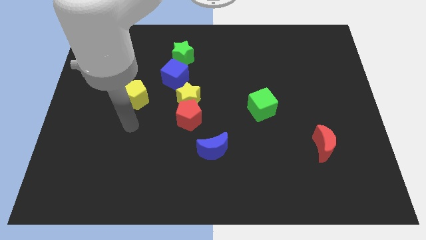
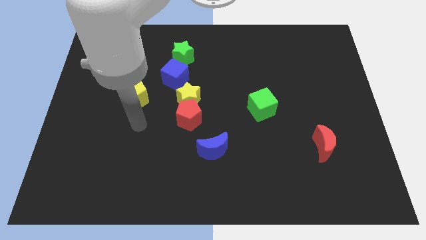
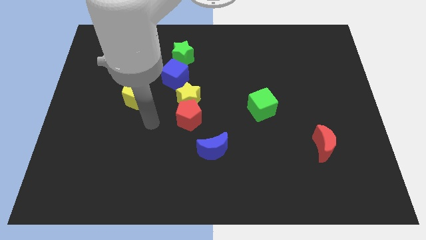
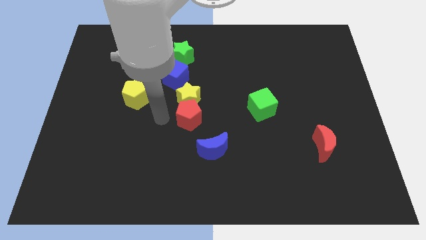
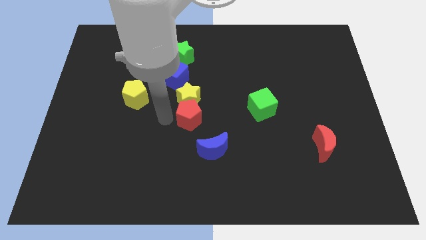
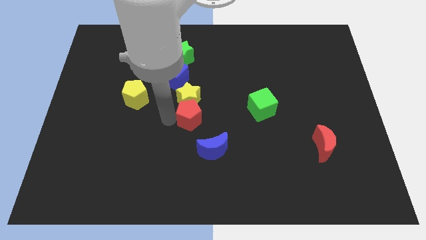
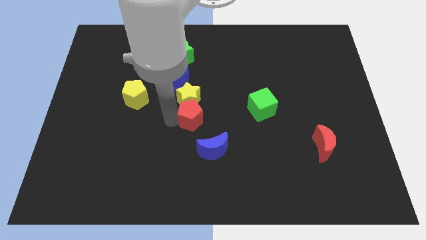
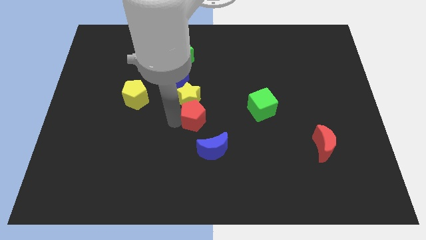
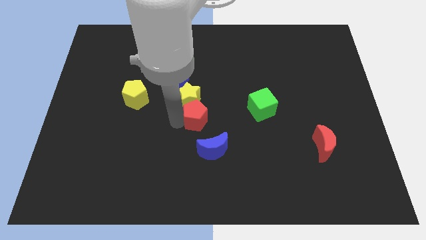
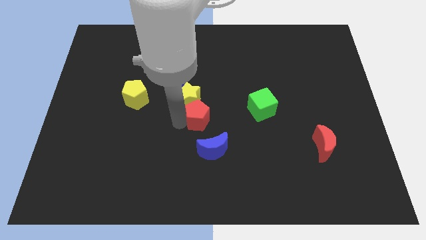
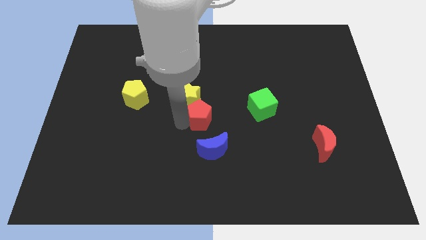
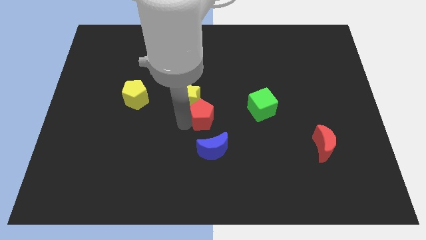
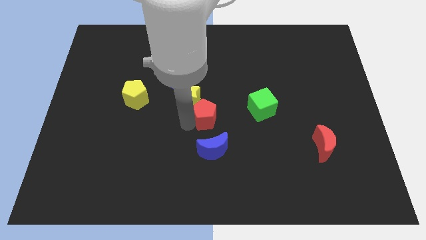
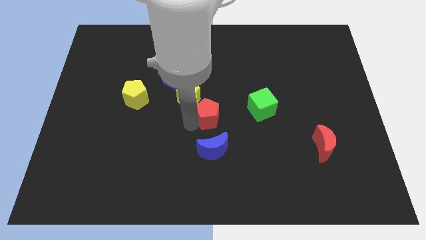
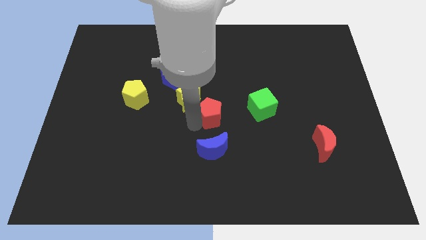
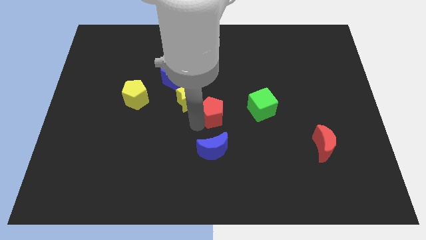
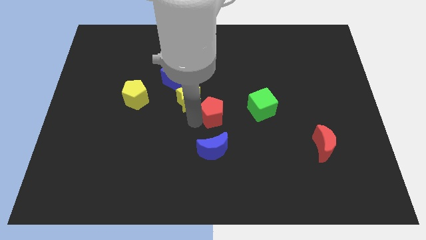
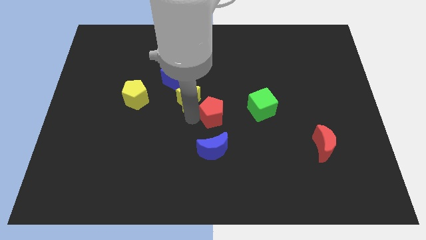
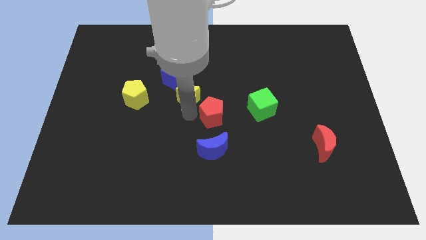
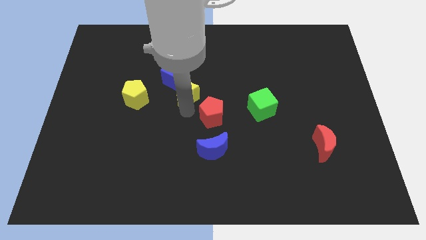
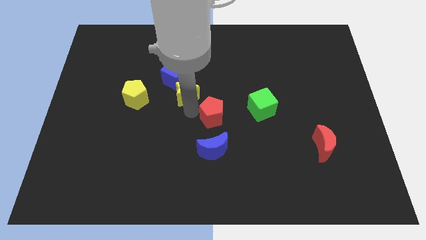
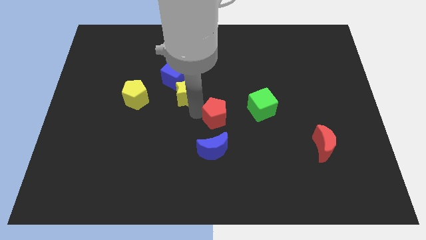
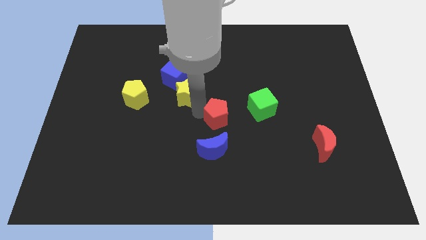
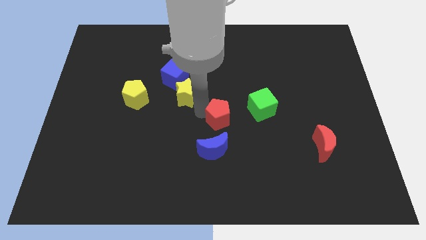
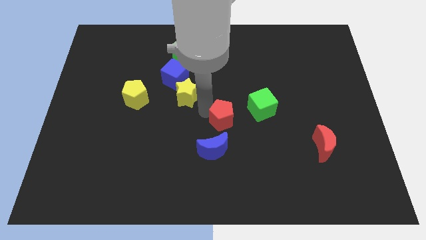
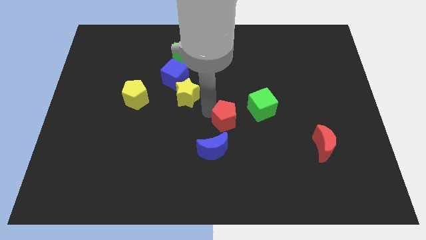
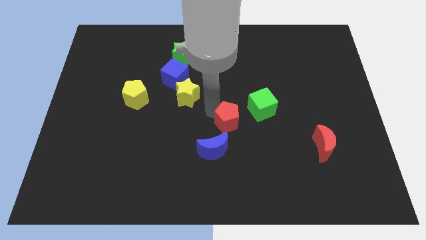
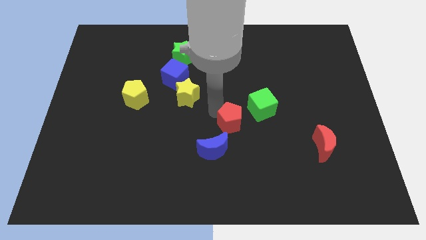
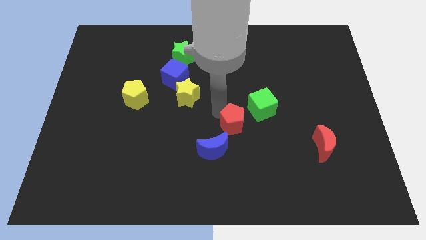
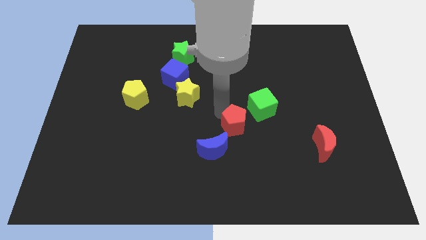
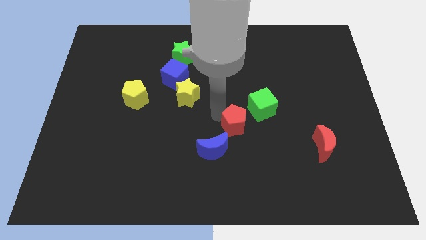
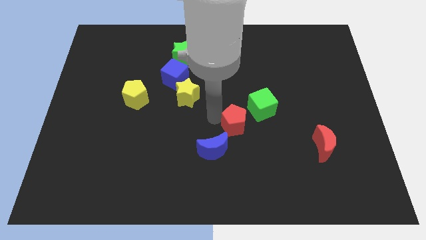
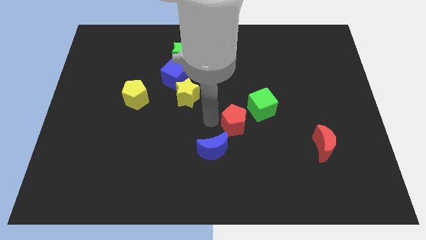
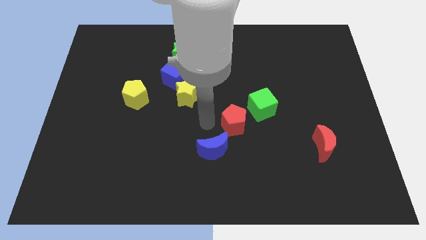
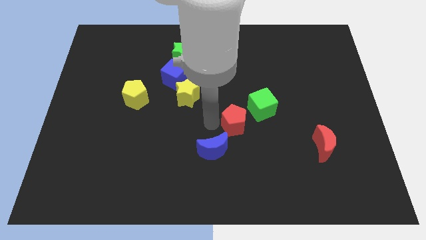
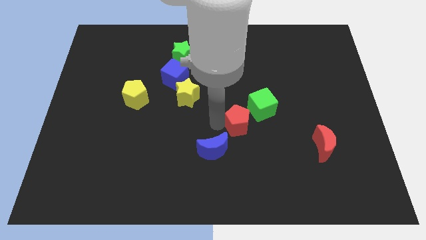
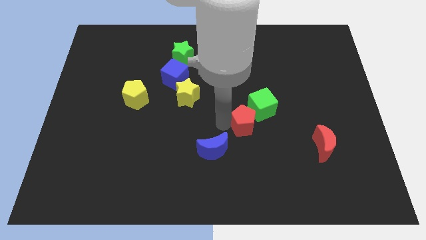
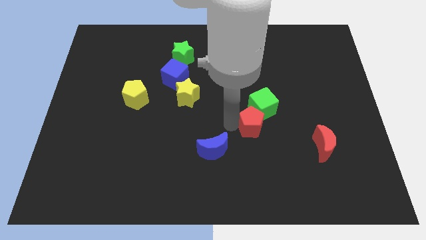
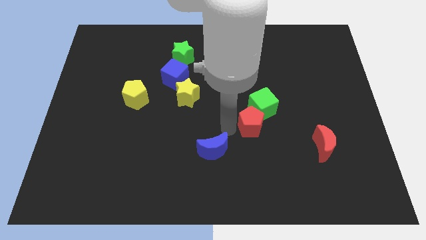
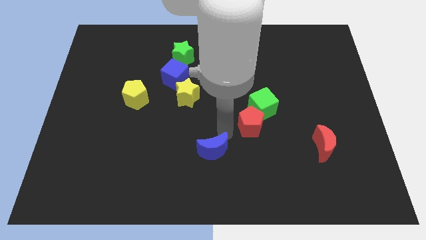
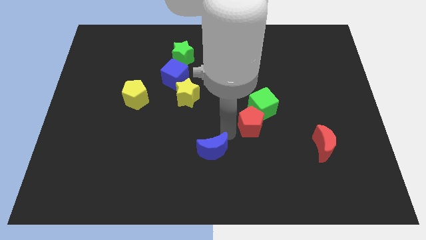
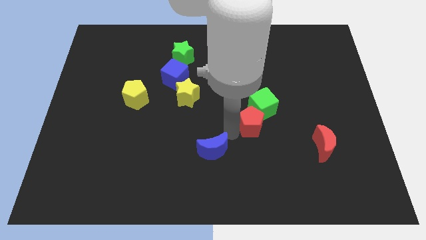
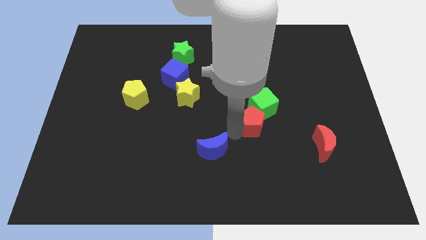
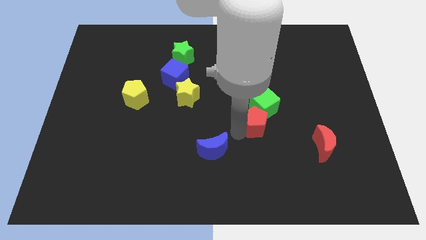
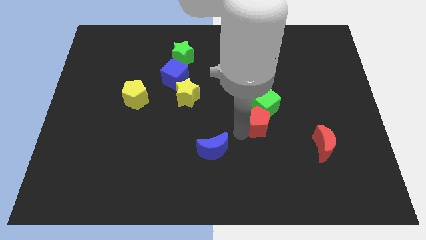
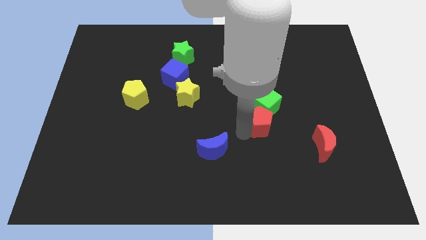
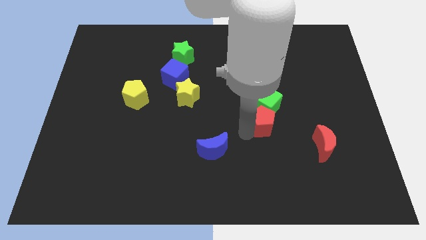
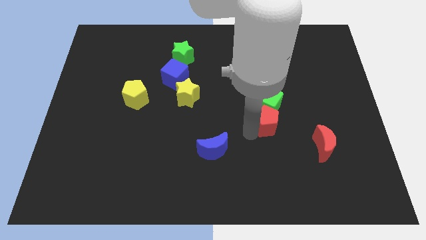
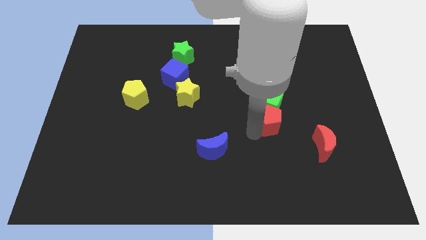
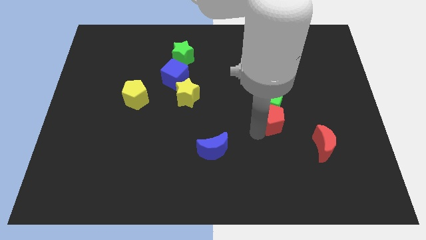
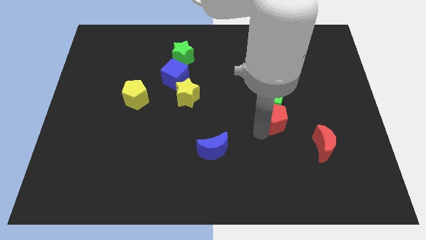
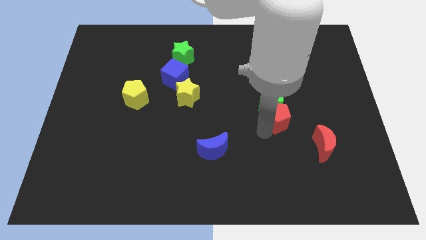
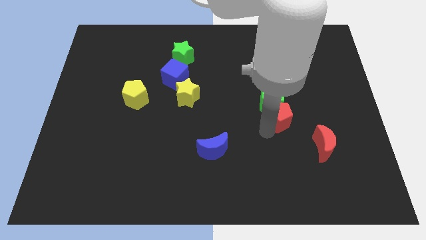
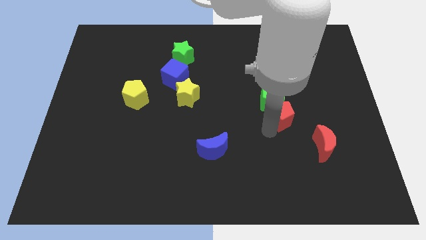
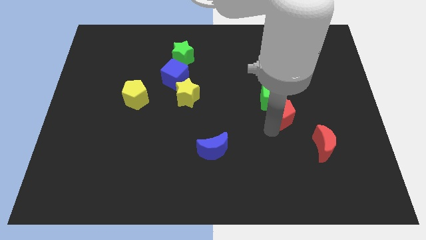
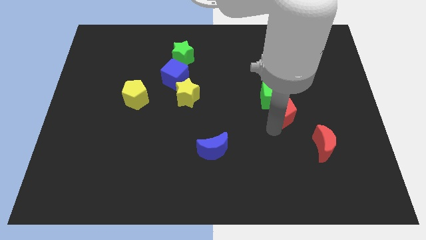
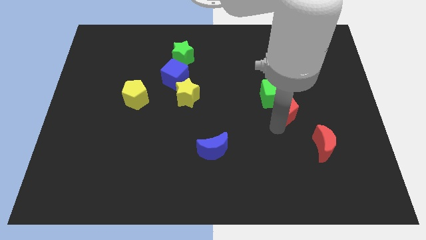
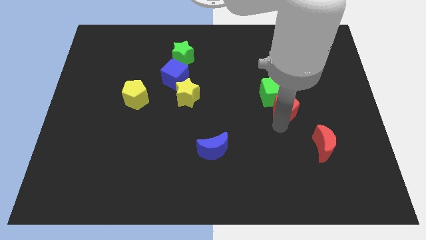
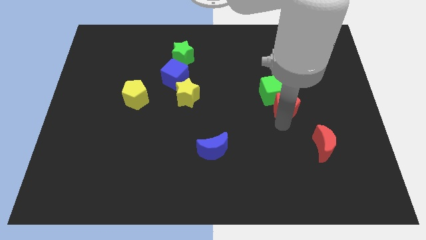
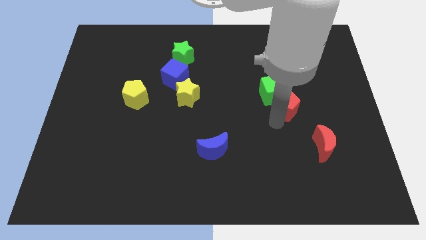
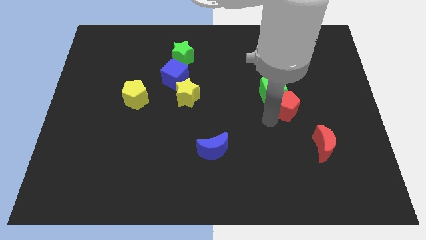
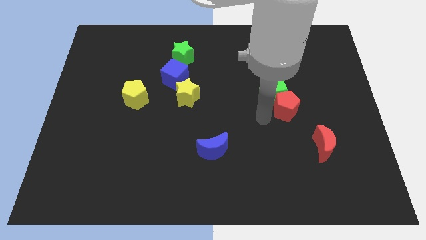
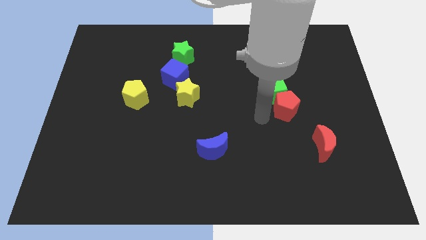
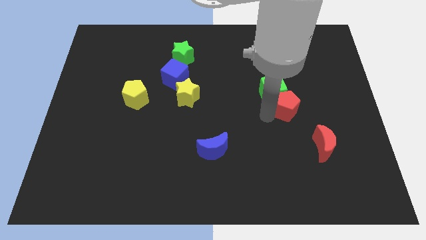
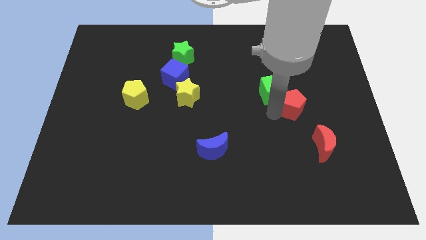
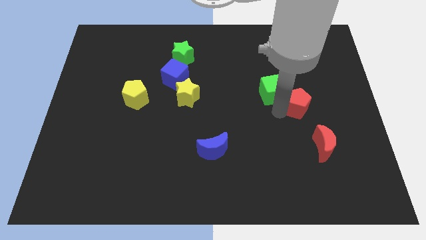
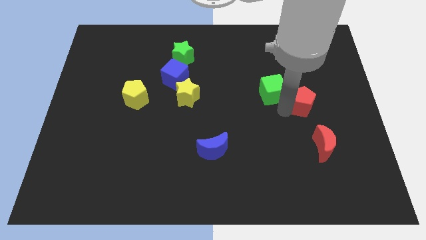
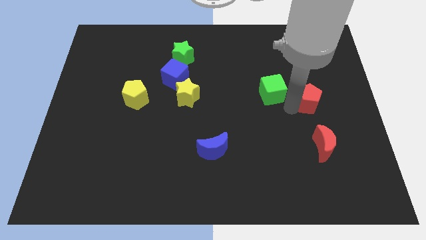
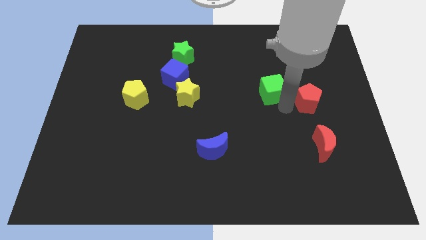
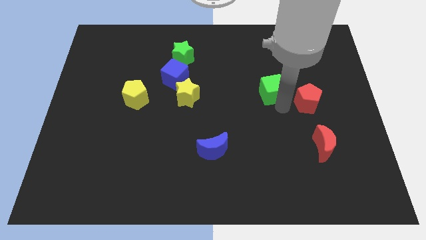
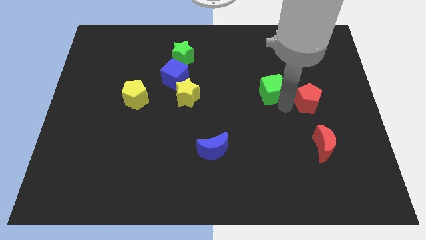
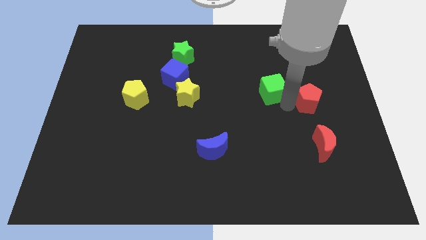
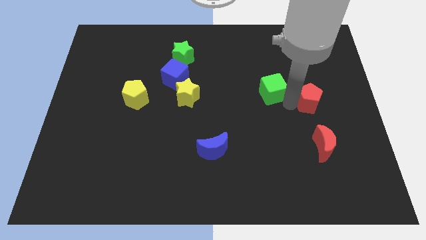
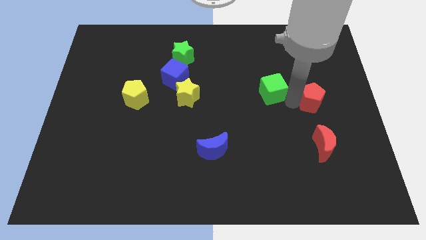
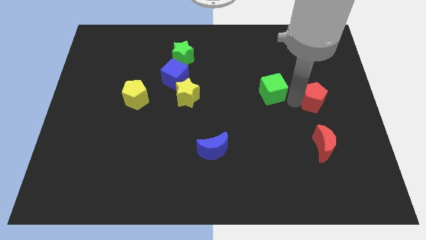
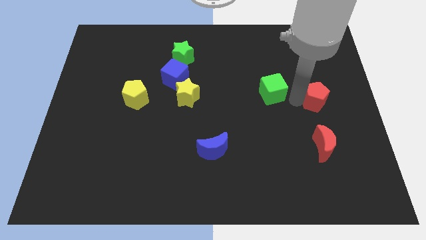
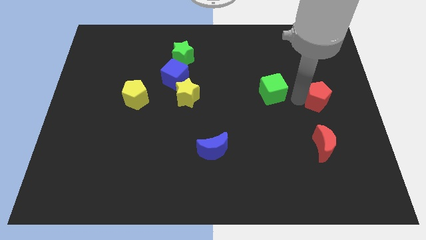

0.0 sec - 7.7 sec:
put the red pentagon to the right side
